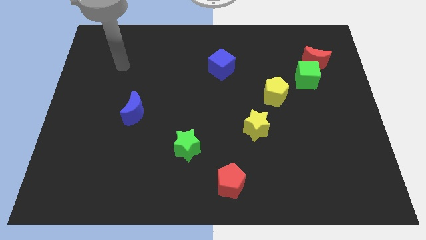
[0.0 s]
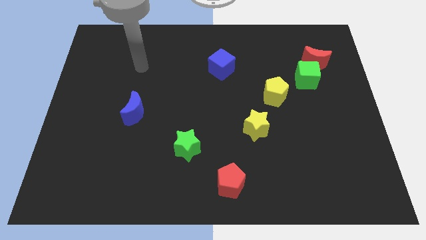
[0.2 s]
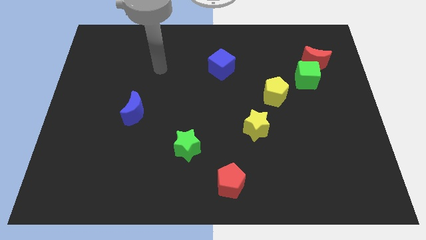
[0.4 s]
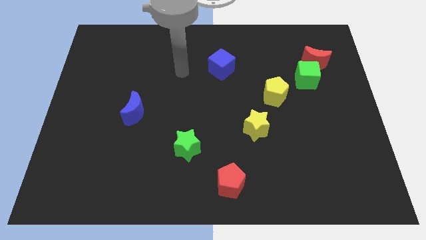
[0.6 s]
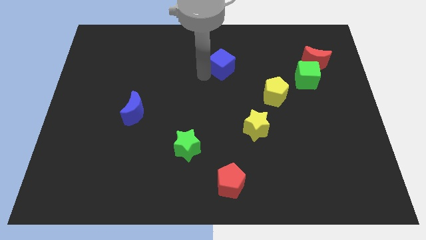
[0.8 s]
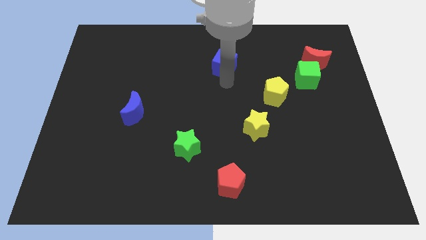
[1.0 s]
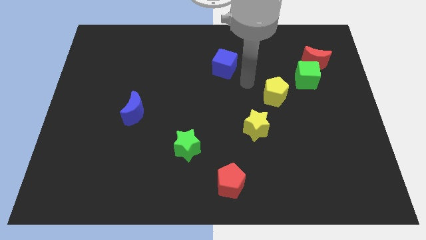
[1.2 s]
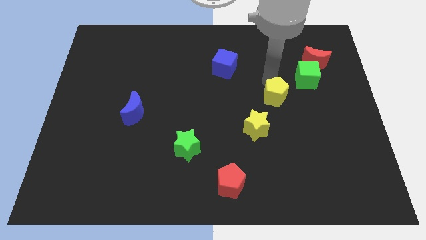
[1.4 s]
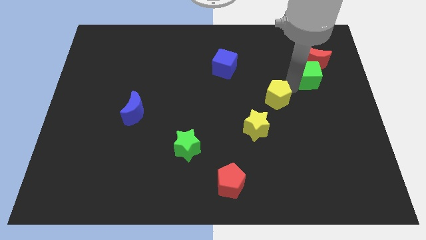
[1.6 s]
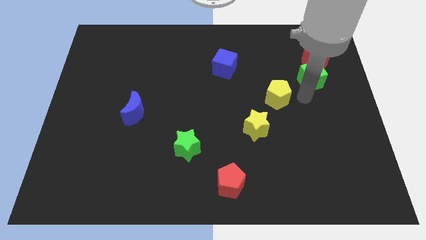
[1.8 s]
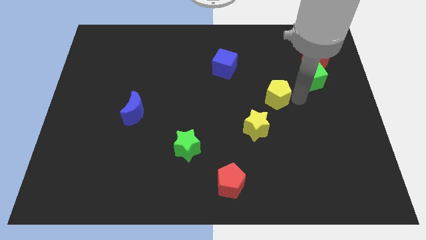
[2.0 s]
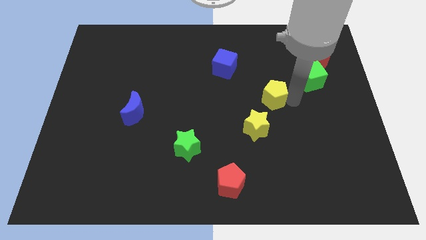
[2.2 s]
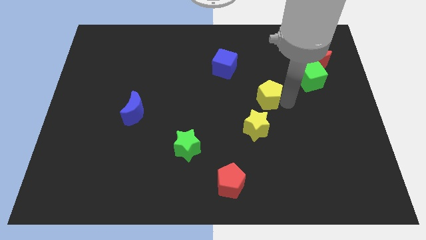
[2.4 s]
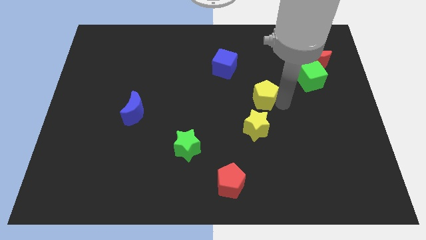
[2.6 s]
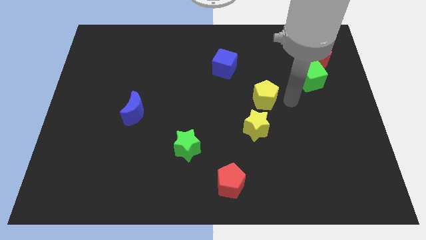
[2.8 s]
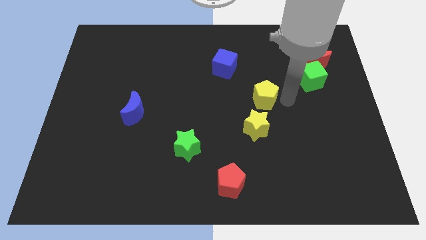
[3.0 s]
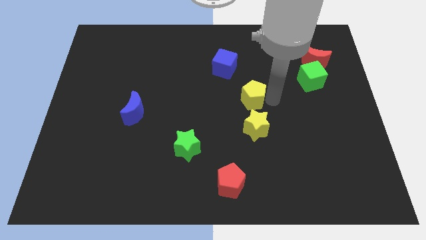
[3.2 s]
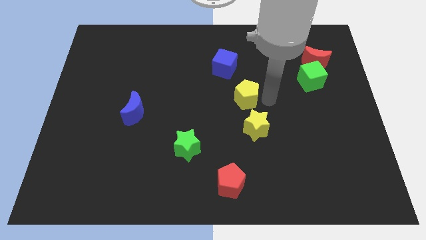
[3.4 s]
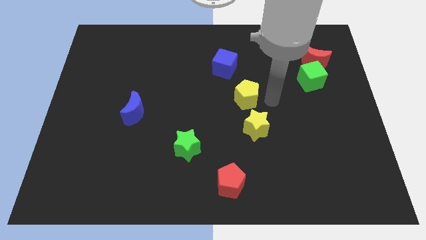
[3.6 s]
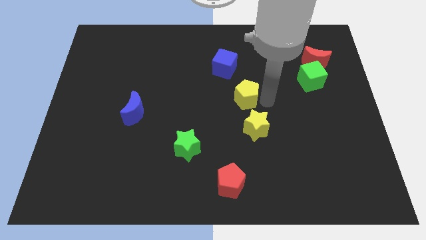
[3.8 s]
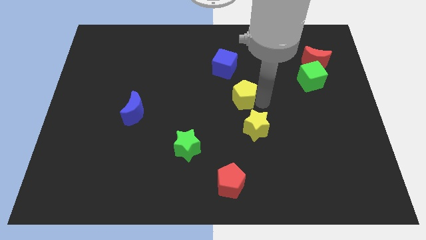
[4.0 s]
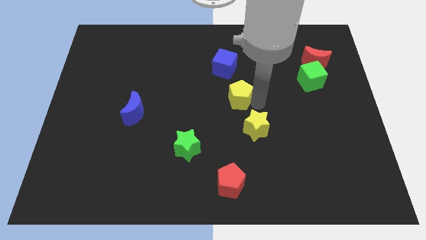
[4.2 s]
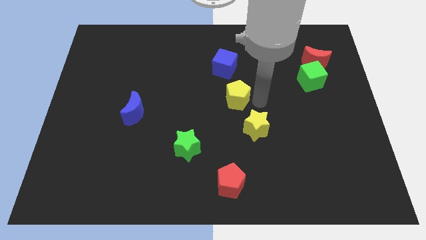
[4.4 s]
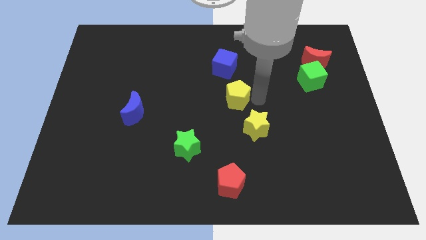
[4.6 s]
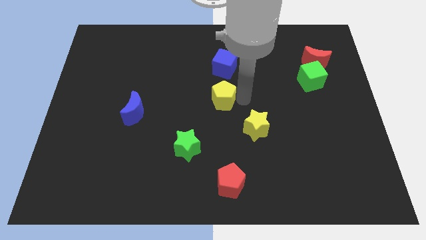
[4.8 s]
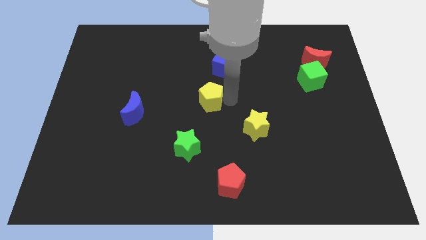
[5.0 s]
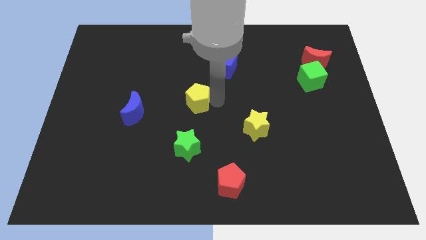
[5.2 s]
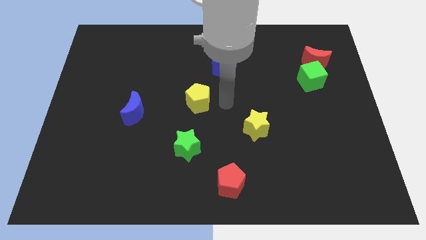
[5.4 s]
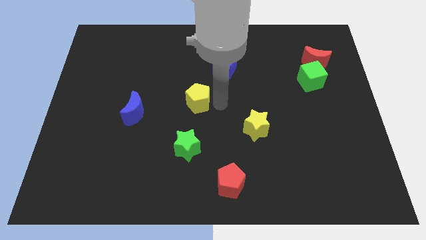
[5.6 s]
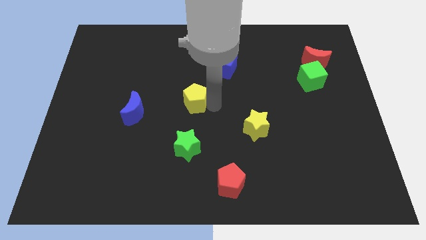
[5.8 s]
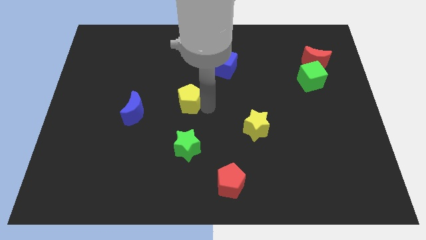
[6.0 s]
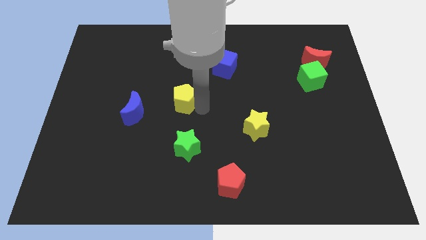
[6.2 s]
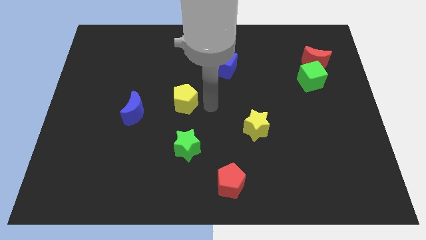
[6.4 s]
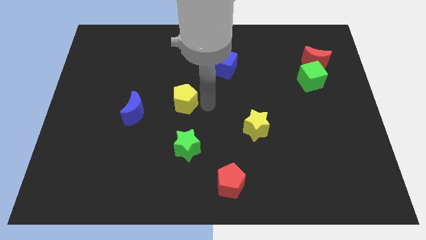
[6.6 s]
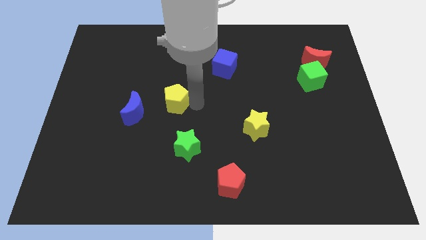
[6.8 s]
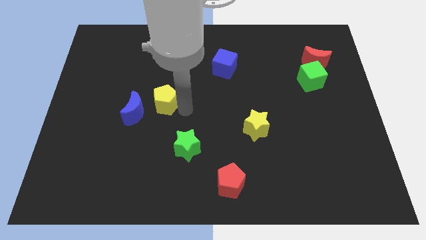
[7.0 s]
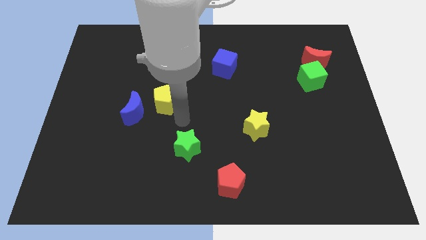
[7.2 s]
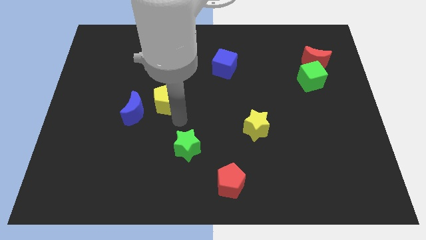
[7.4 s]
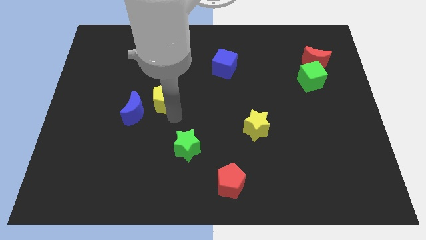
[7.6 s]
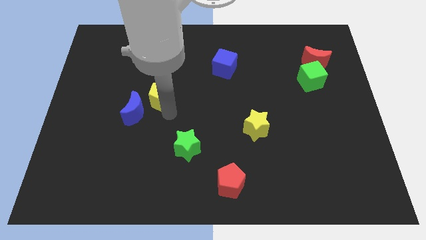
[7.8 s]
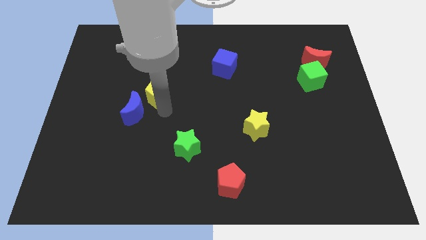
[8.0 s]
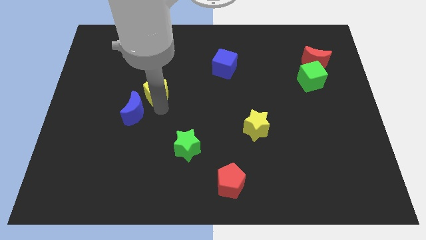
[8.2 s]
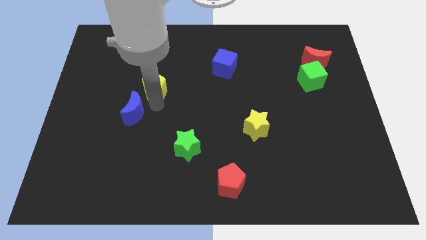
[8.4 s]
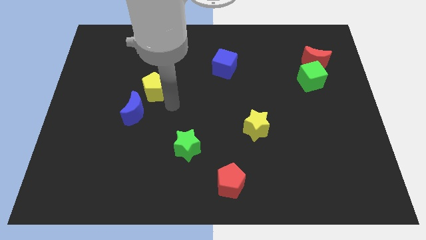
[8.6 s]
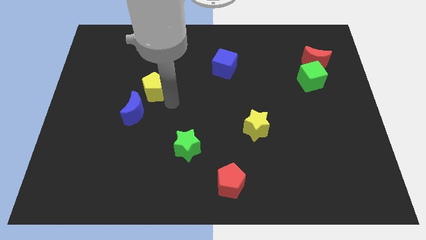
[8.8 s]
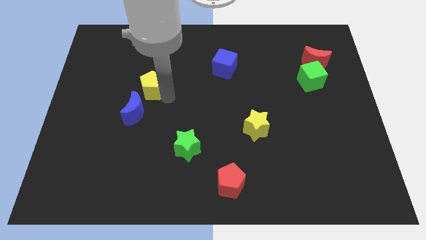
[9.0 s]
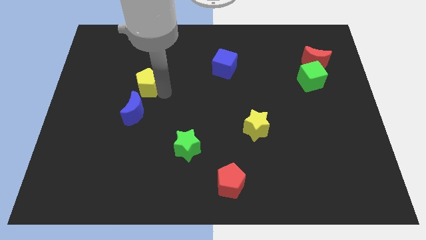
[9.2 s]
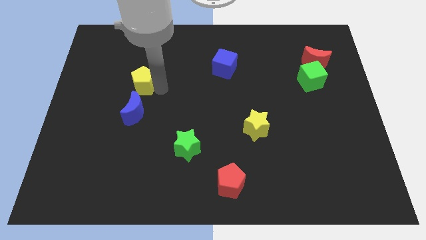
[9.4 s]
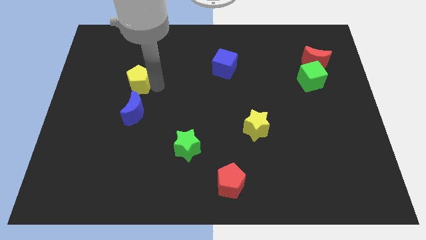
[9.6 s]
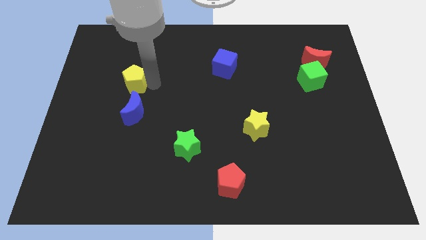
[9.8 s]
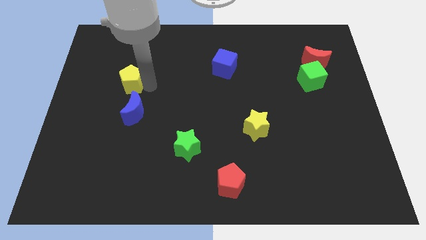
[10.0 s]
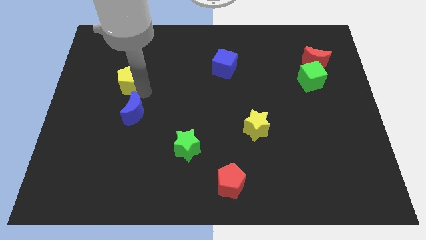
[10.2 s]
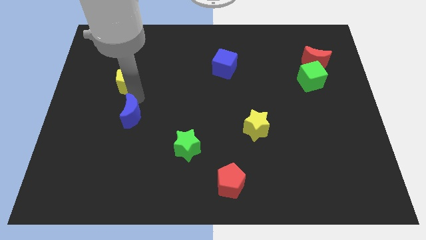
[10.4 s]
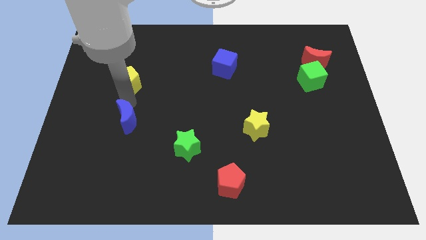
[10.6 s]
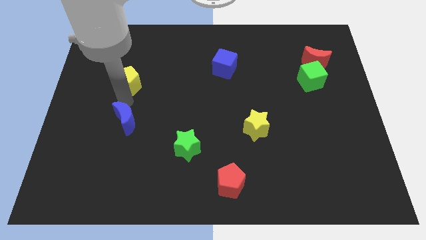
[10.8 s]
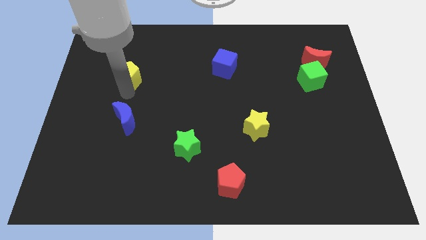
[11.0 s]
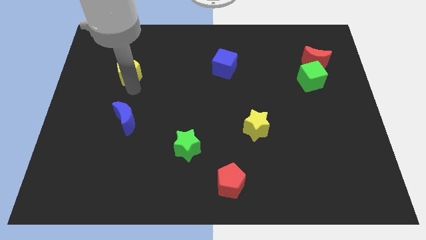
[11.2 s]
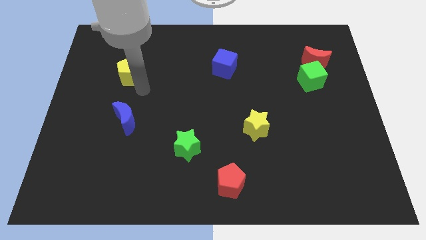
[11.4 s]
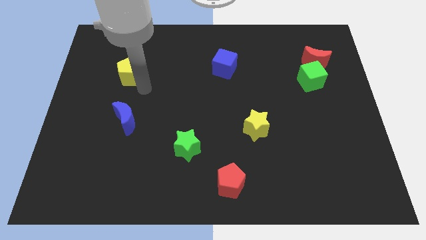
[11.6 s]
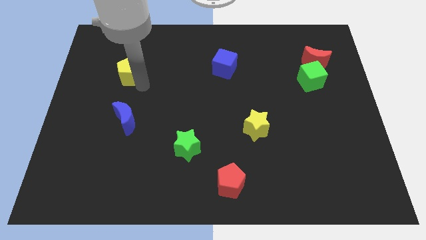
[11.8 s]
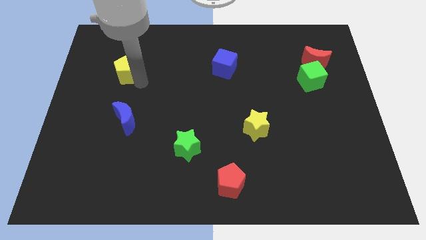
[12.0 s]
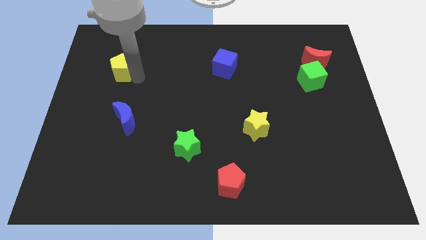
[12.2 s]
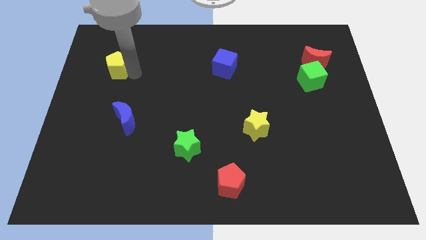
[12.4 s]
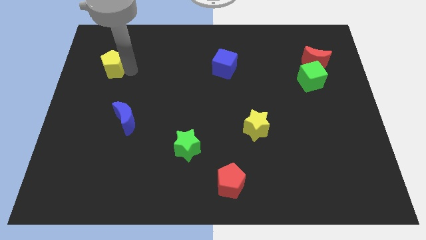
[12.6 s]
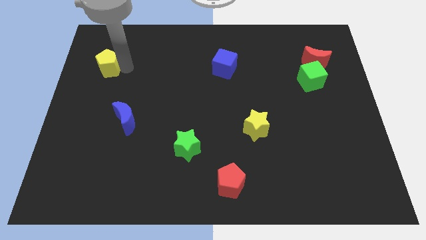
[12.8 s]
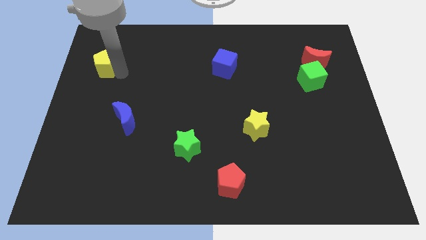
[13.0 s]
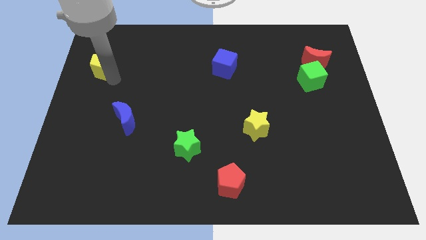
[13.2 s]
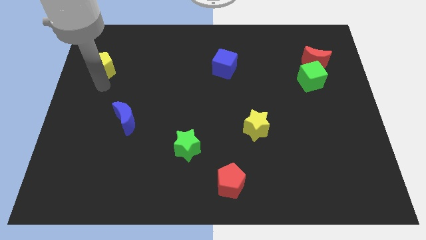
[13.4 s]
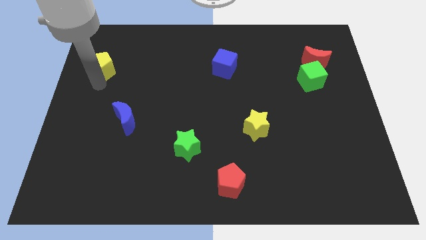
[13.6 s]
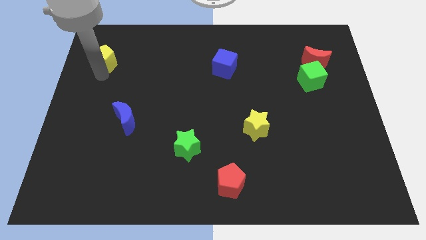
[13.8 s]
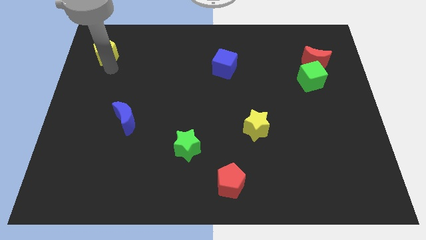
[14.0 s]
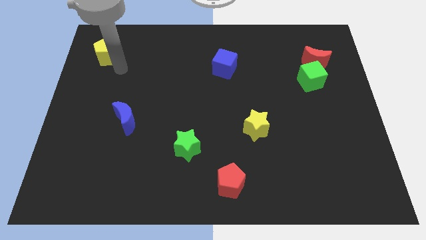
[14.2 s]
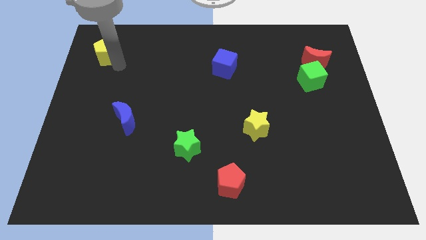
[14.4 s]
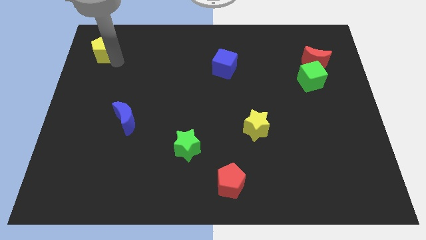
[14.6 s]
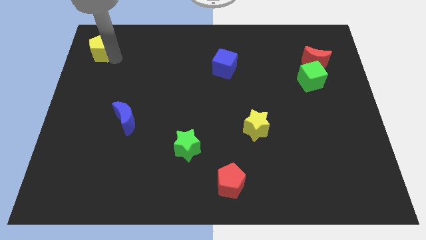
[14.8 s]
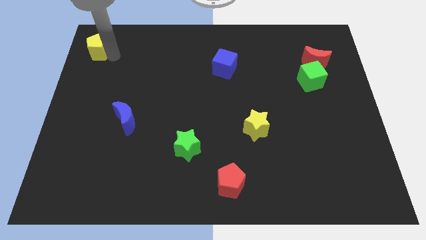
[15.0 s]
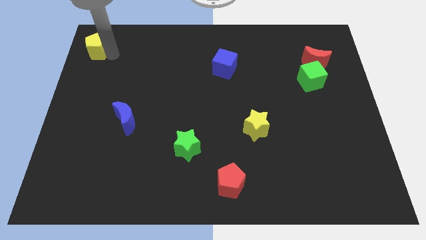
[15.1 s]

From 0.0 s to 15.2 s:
move the yellow pentagon to the top left
